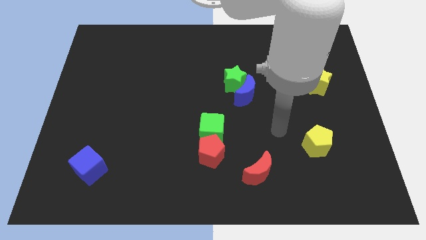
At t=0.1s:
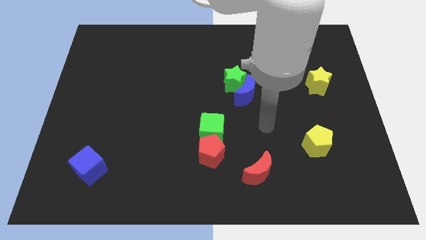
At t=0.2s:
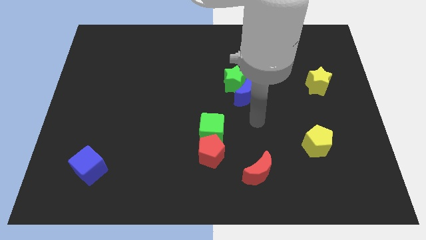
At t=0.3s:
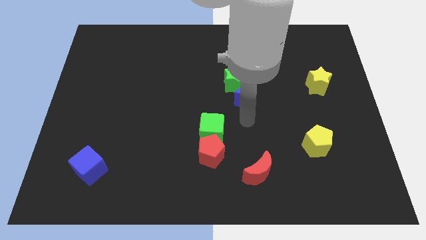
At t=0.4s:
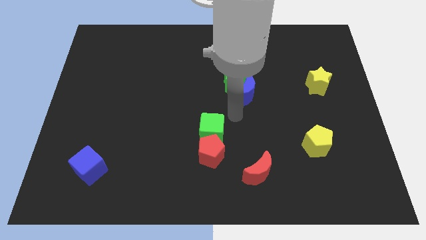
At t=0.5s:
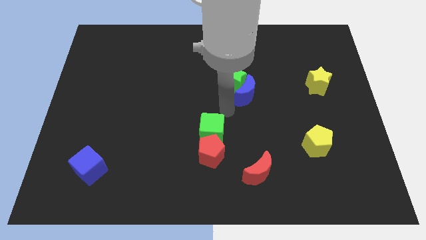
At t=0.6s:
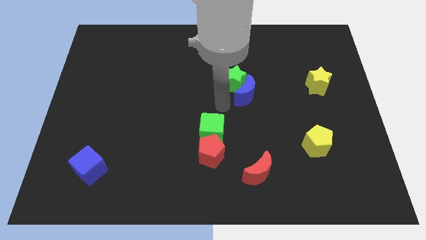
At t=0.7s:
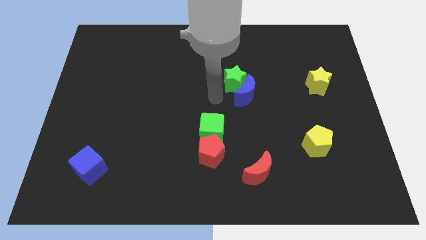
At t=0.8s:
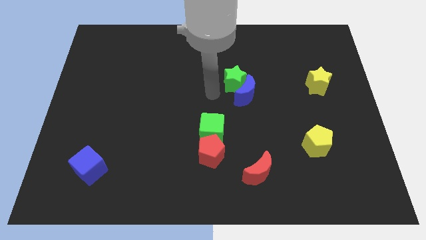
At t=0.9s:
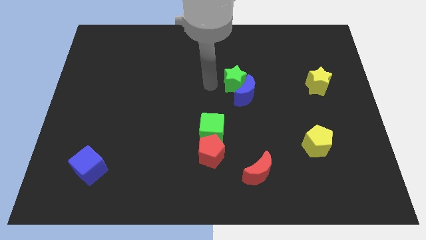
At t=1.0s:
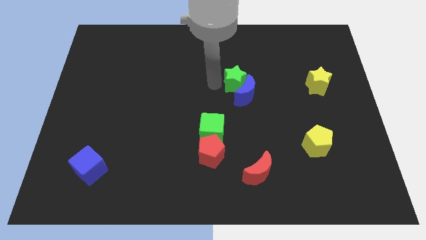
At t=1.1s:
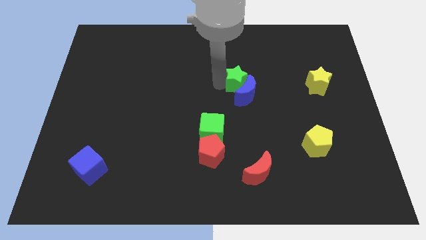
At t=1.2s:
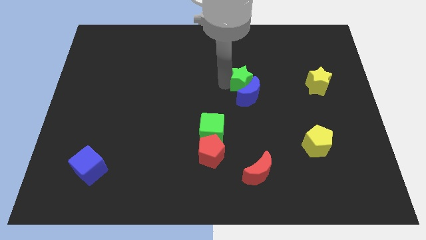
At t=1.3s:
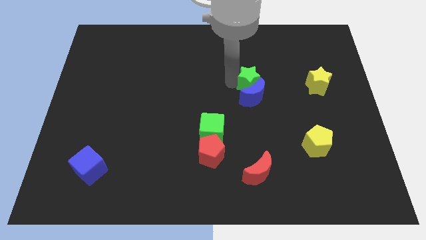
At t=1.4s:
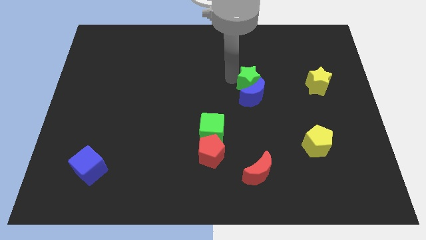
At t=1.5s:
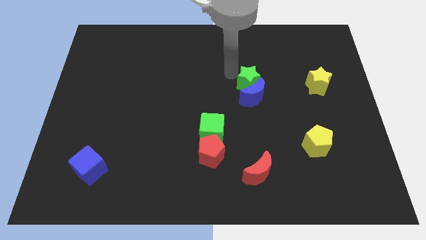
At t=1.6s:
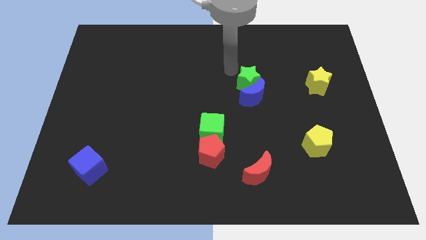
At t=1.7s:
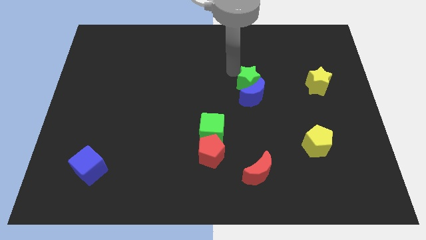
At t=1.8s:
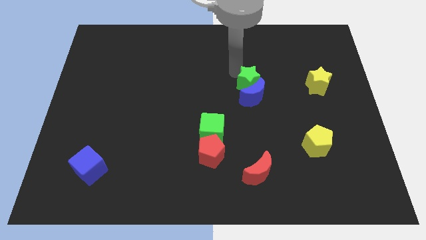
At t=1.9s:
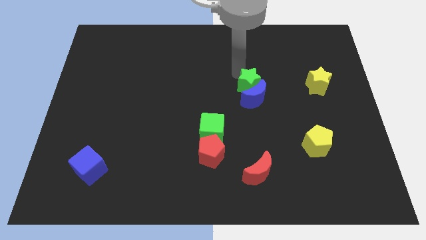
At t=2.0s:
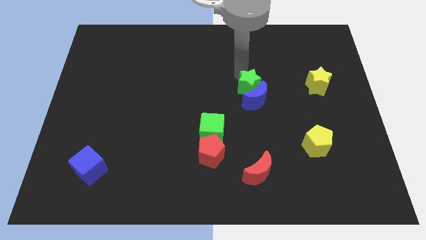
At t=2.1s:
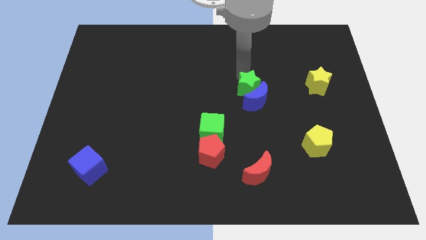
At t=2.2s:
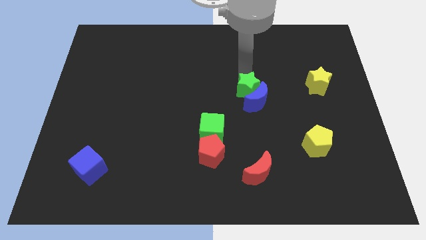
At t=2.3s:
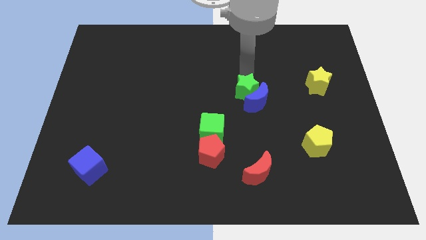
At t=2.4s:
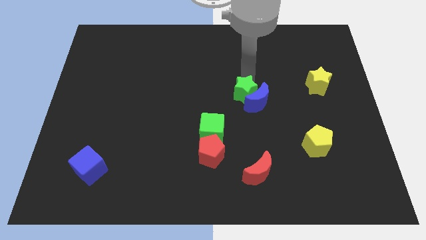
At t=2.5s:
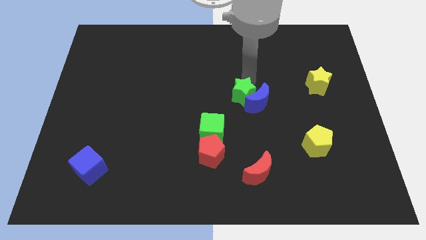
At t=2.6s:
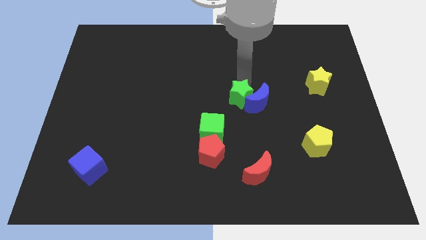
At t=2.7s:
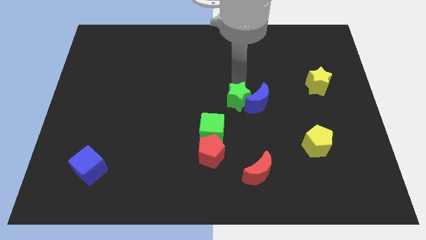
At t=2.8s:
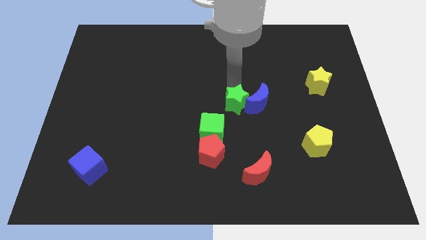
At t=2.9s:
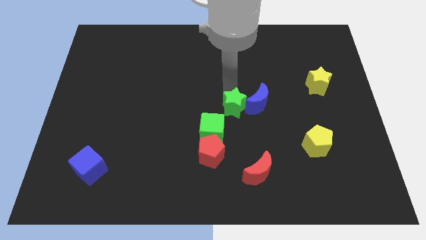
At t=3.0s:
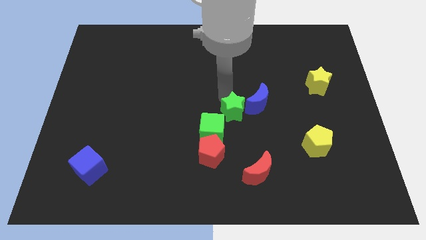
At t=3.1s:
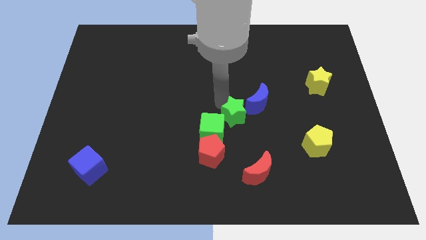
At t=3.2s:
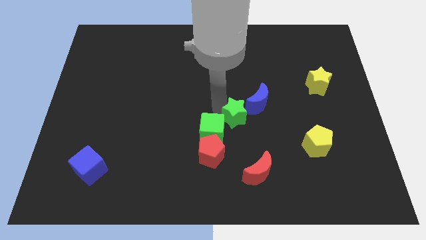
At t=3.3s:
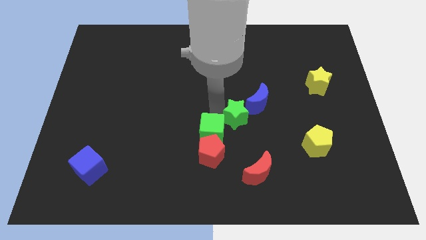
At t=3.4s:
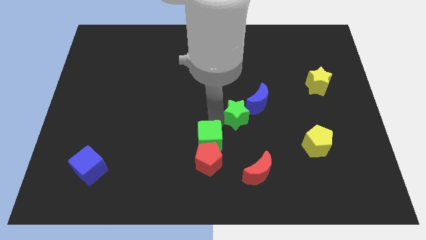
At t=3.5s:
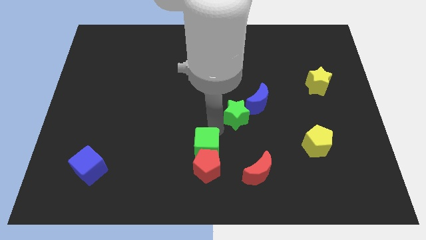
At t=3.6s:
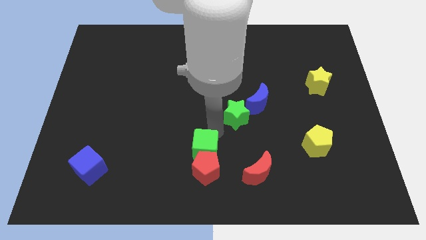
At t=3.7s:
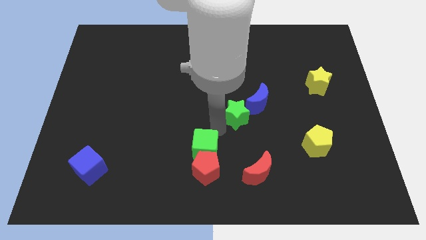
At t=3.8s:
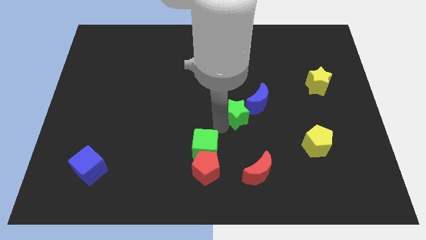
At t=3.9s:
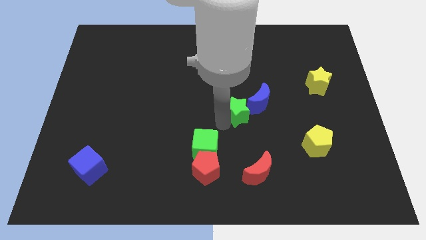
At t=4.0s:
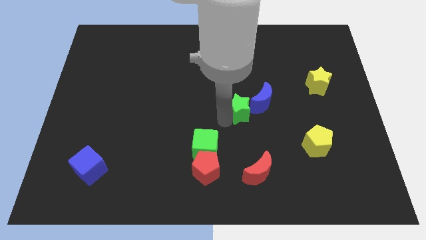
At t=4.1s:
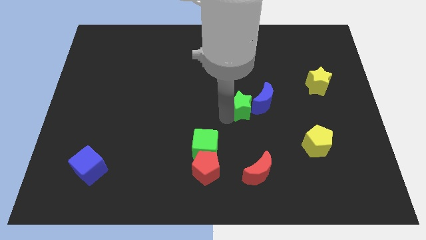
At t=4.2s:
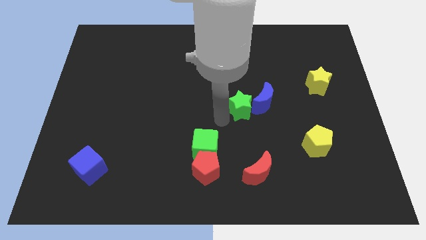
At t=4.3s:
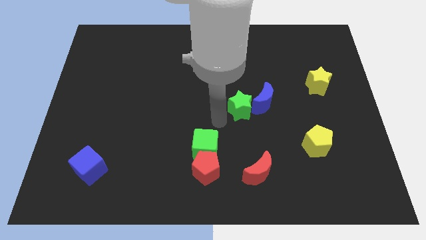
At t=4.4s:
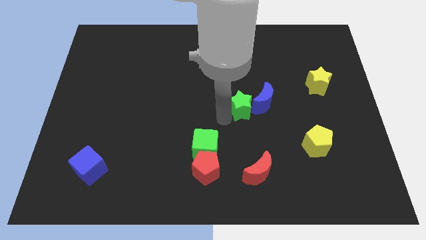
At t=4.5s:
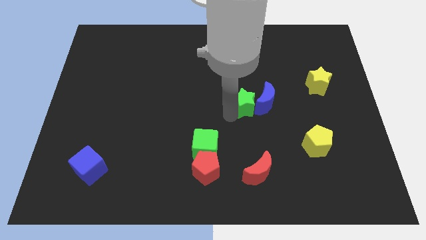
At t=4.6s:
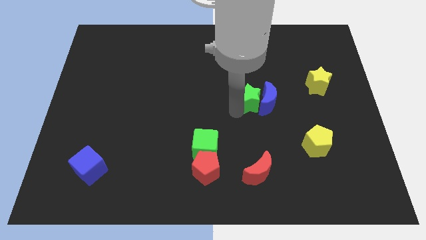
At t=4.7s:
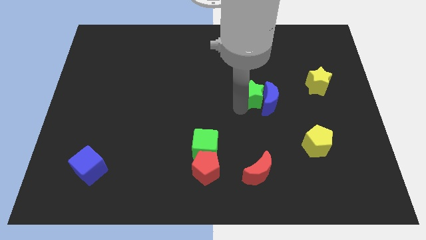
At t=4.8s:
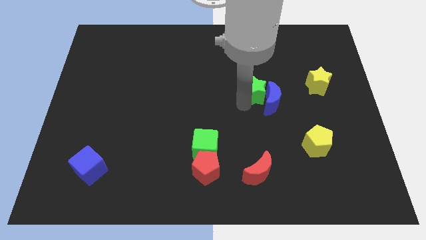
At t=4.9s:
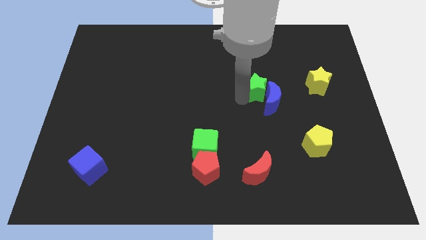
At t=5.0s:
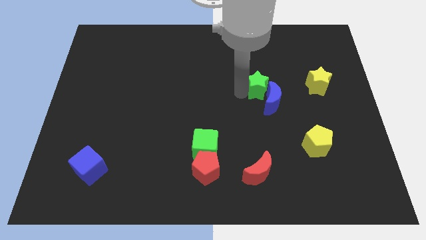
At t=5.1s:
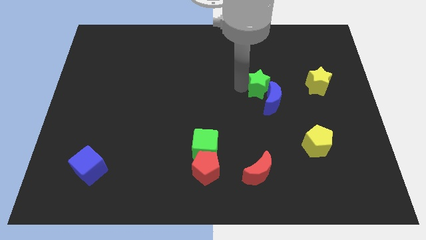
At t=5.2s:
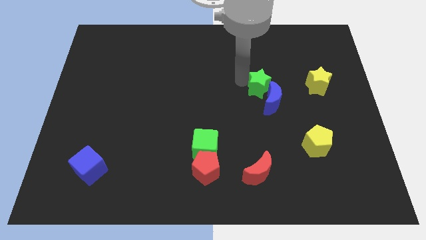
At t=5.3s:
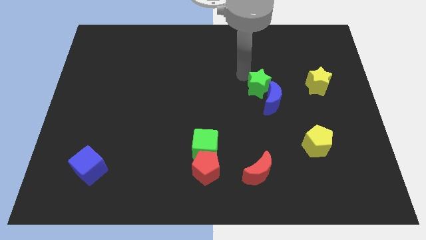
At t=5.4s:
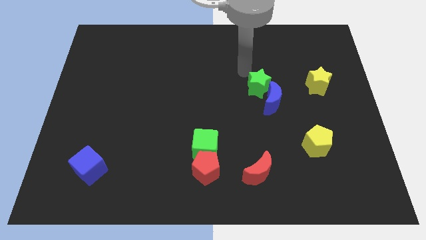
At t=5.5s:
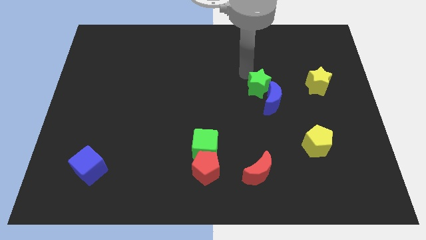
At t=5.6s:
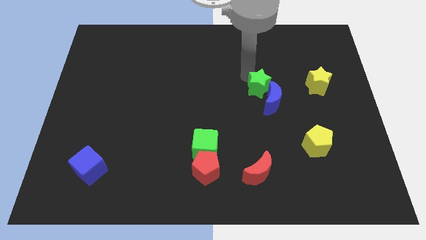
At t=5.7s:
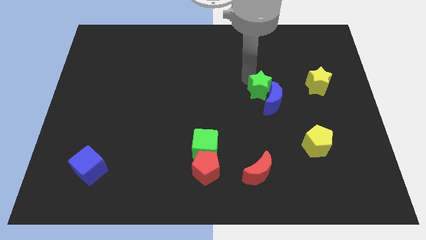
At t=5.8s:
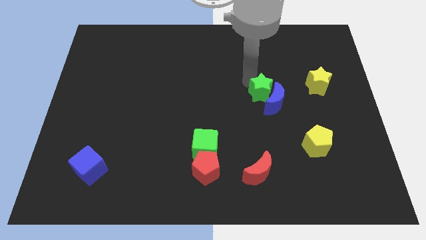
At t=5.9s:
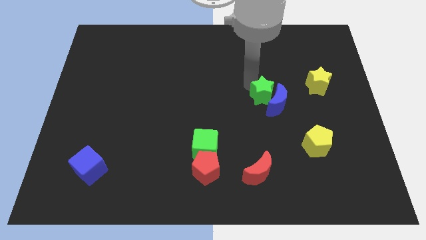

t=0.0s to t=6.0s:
slightly push the green star diagonally downwards and right

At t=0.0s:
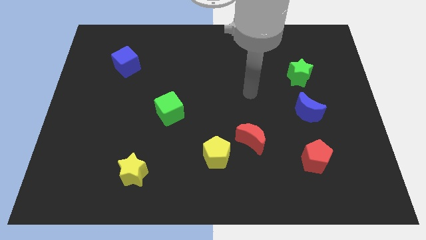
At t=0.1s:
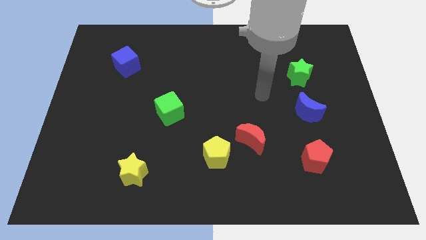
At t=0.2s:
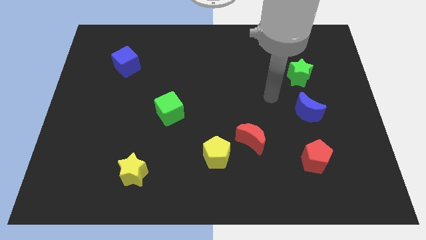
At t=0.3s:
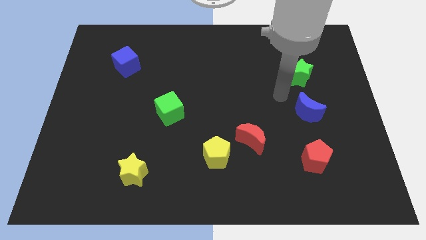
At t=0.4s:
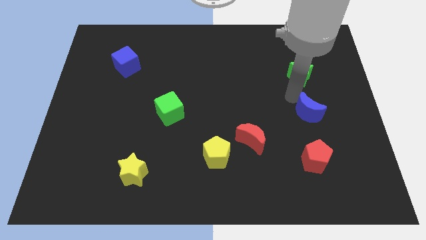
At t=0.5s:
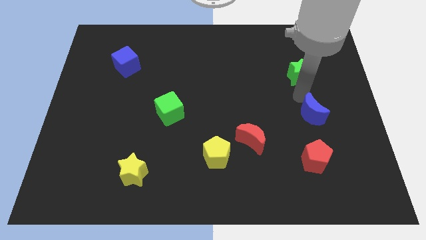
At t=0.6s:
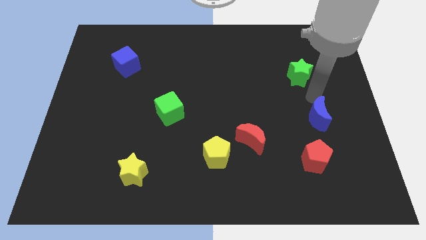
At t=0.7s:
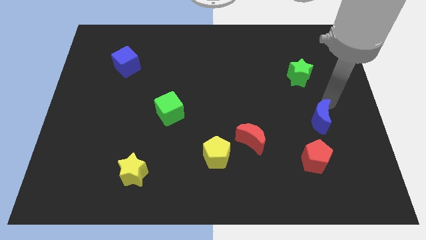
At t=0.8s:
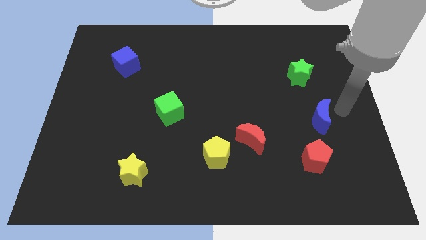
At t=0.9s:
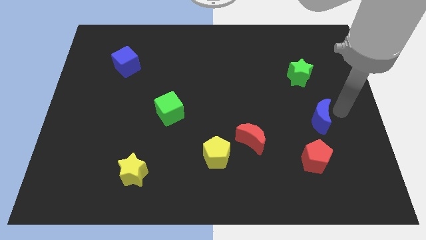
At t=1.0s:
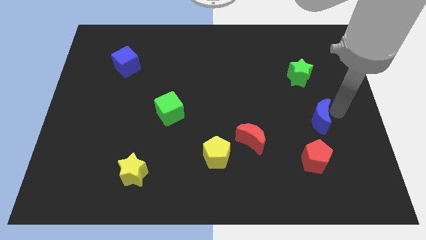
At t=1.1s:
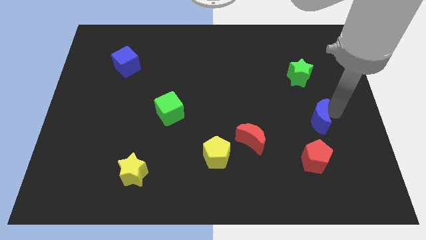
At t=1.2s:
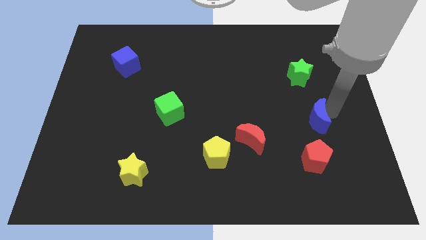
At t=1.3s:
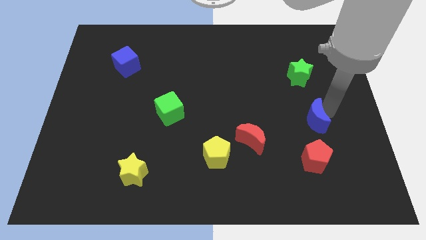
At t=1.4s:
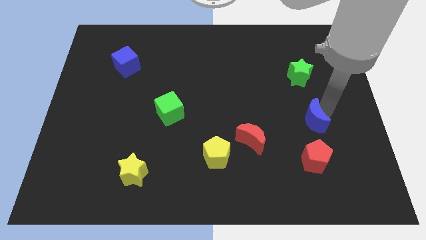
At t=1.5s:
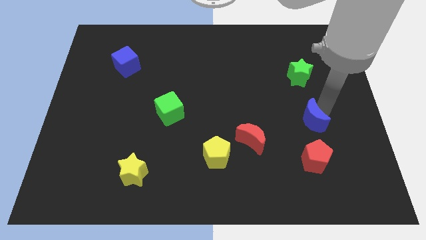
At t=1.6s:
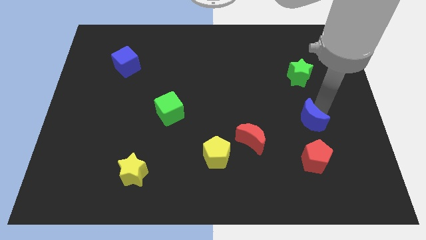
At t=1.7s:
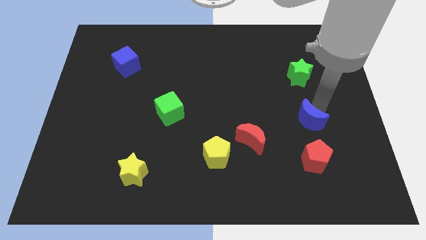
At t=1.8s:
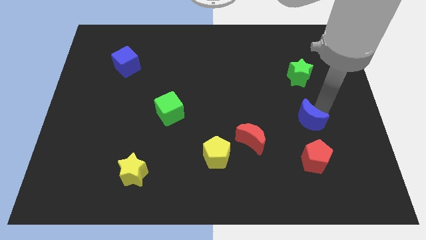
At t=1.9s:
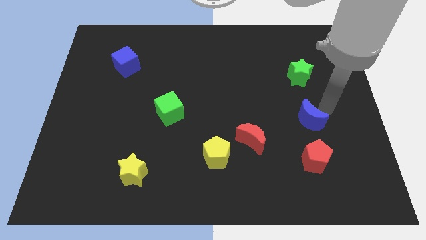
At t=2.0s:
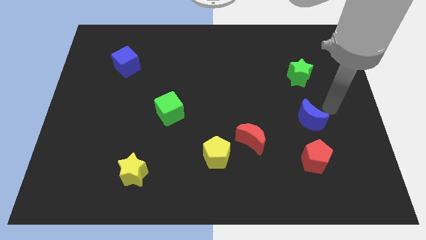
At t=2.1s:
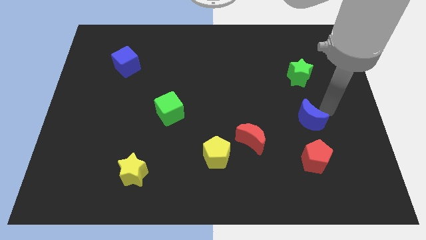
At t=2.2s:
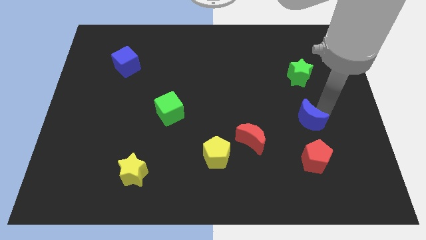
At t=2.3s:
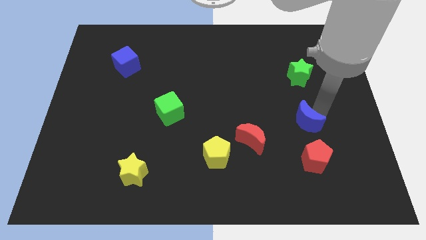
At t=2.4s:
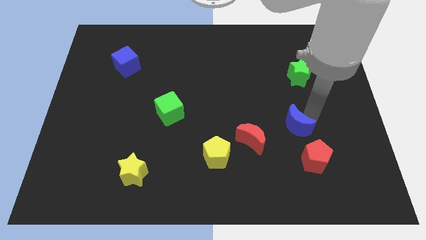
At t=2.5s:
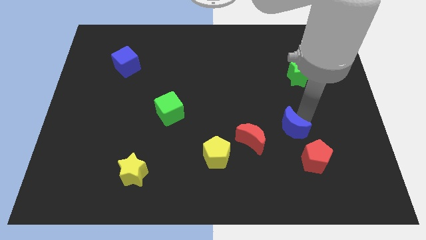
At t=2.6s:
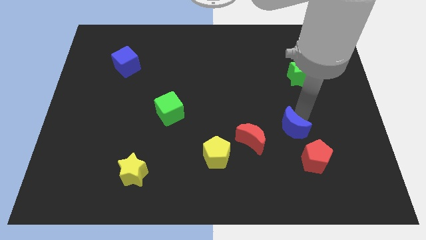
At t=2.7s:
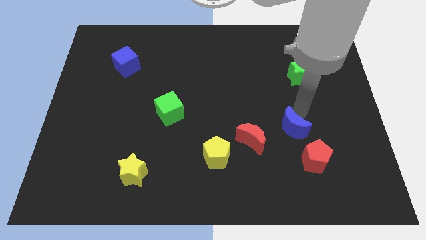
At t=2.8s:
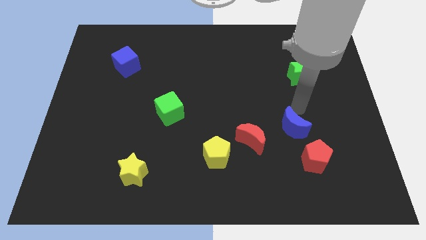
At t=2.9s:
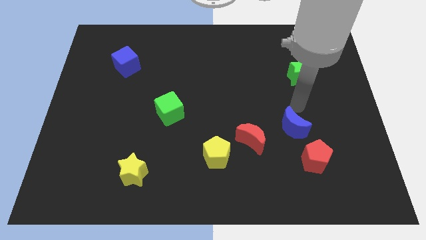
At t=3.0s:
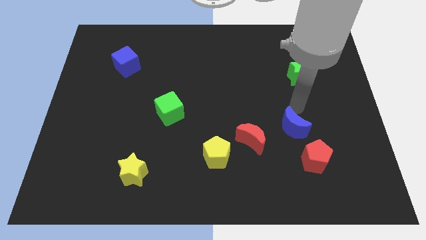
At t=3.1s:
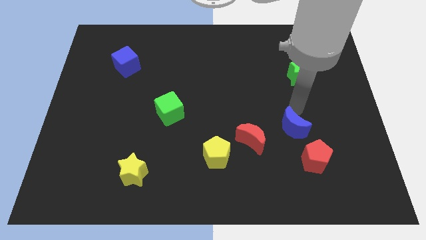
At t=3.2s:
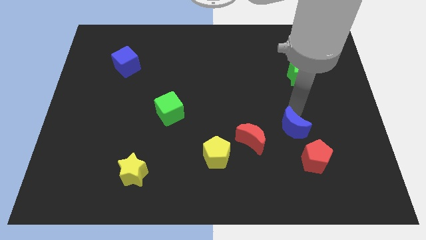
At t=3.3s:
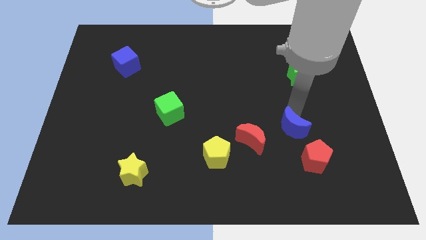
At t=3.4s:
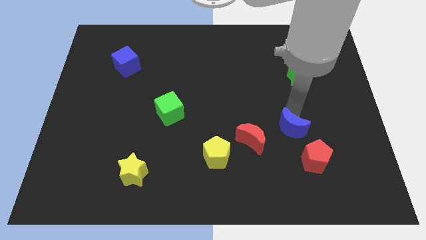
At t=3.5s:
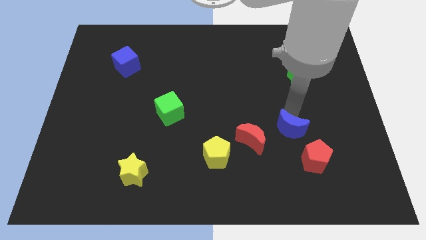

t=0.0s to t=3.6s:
slide the blue moon a little diagonally down and to the left
